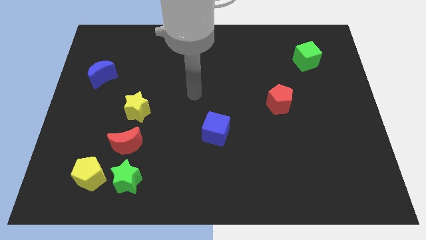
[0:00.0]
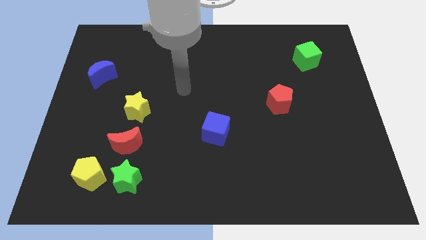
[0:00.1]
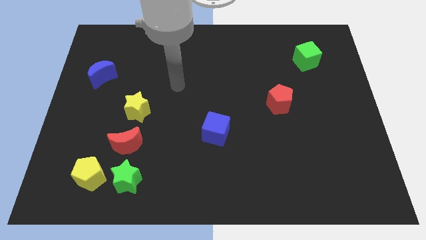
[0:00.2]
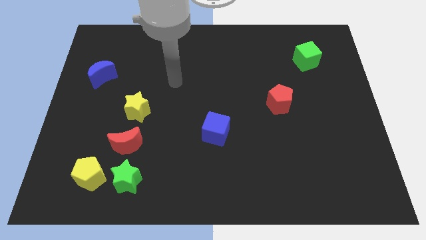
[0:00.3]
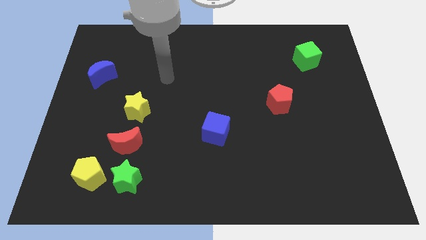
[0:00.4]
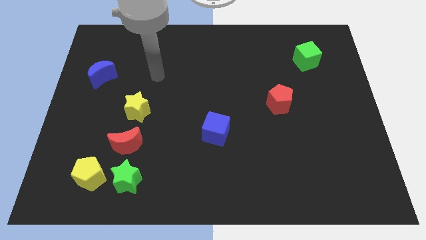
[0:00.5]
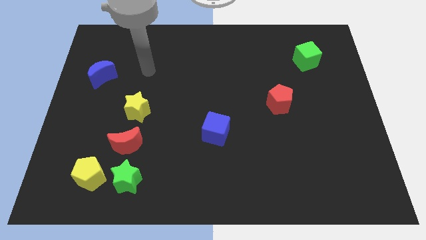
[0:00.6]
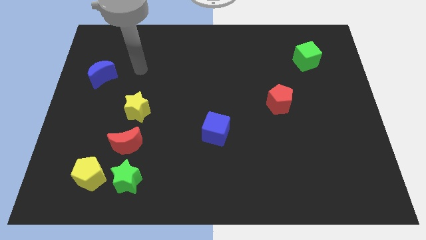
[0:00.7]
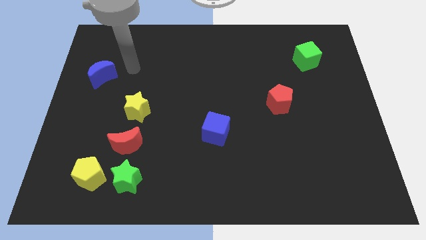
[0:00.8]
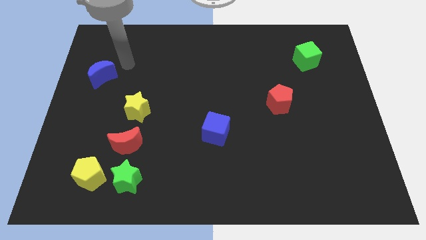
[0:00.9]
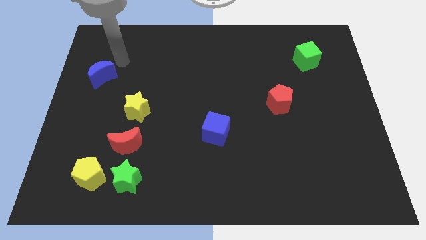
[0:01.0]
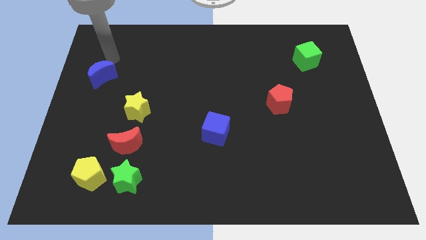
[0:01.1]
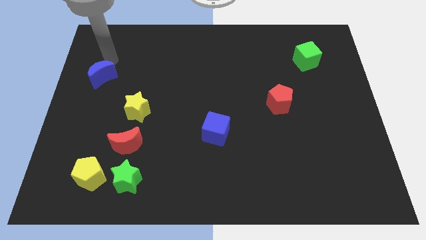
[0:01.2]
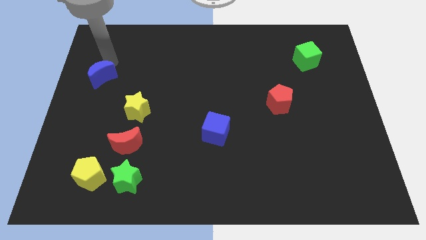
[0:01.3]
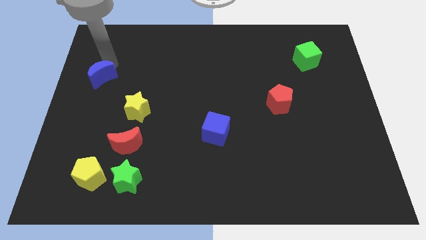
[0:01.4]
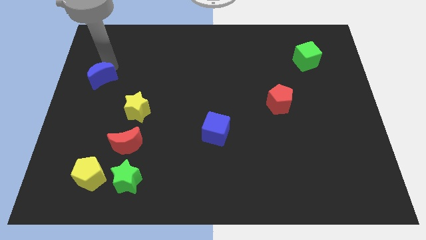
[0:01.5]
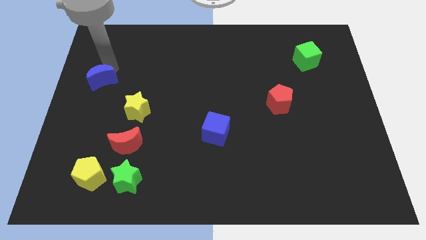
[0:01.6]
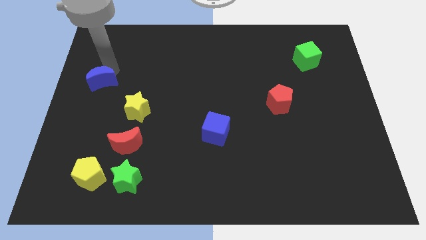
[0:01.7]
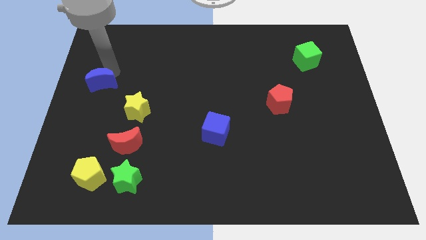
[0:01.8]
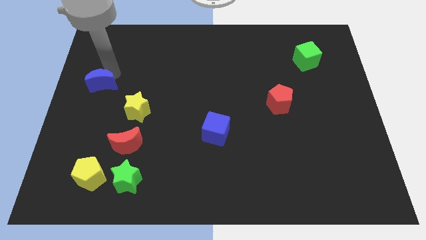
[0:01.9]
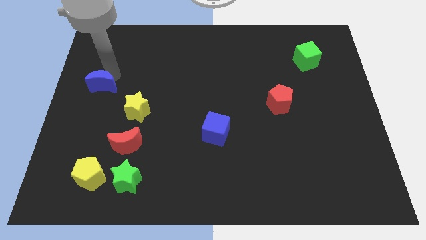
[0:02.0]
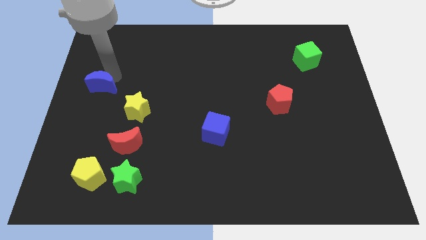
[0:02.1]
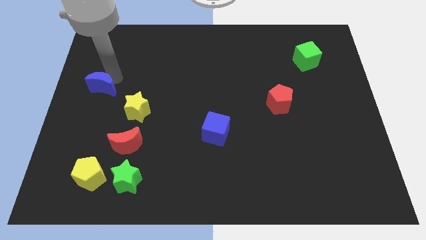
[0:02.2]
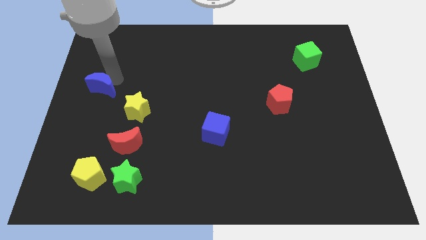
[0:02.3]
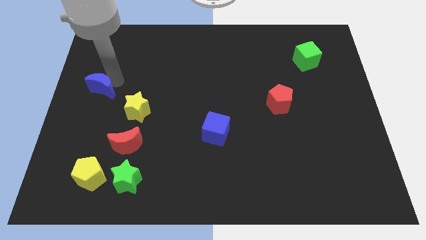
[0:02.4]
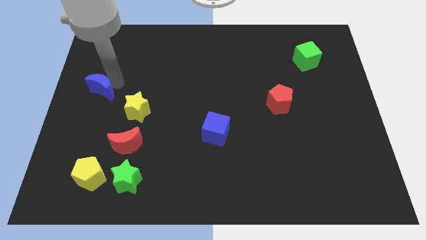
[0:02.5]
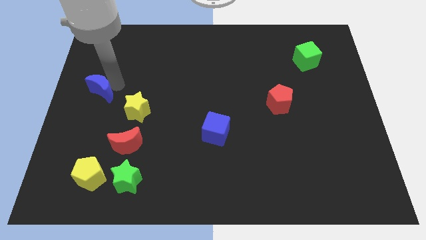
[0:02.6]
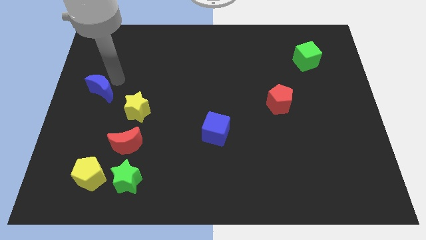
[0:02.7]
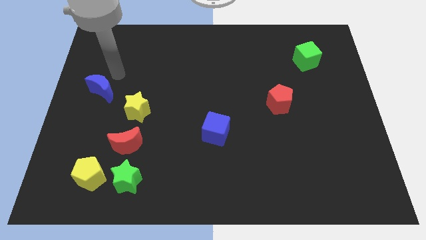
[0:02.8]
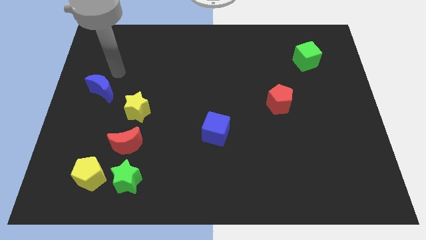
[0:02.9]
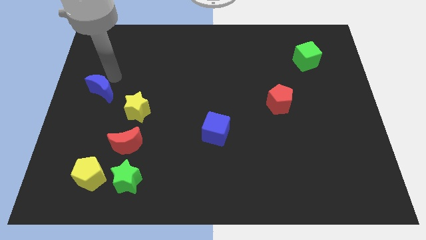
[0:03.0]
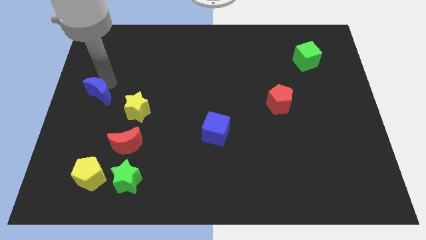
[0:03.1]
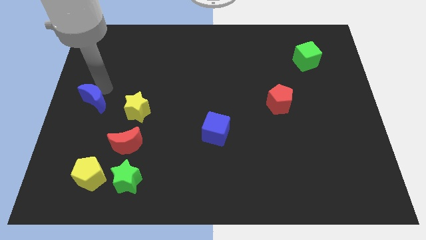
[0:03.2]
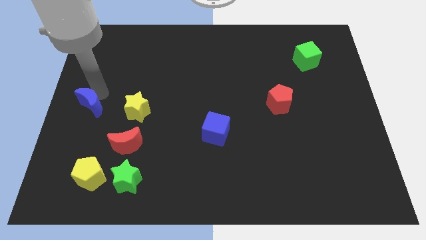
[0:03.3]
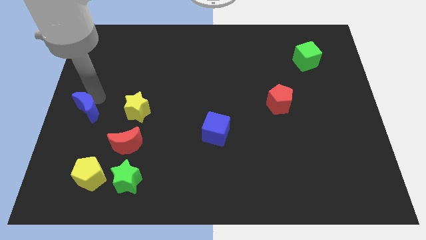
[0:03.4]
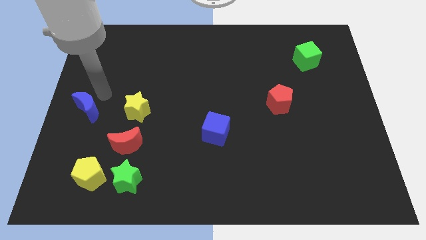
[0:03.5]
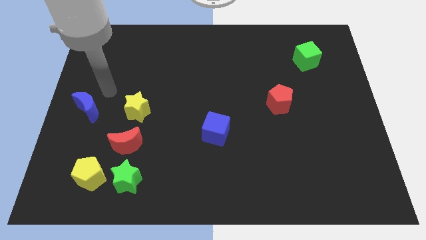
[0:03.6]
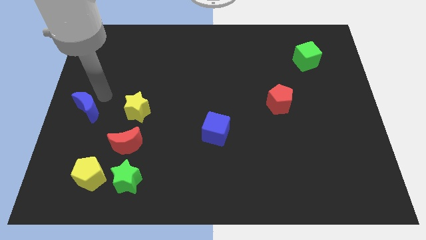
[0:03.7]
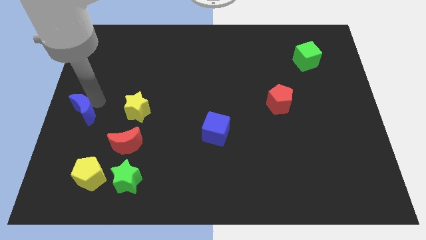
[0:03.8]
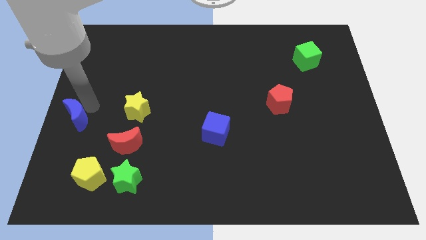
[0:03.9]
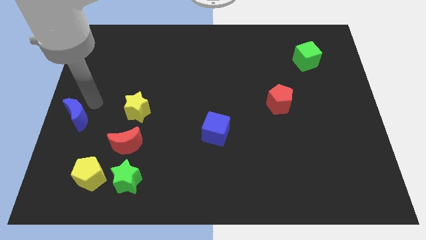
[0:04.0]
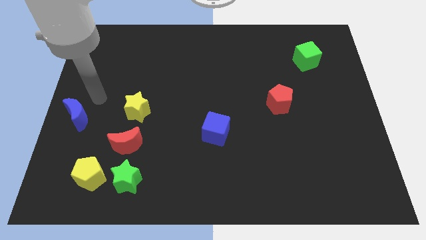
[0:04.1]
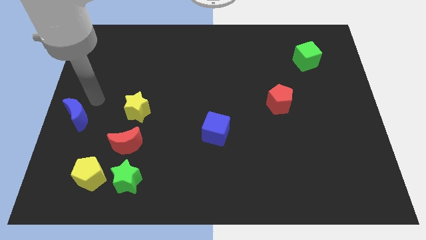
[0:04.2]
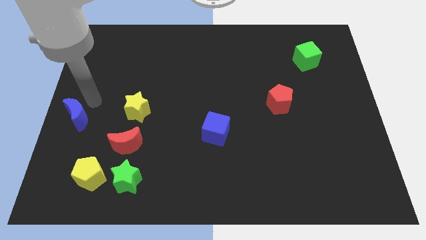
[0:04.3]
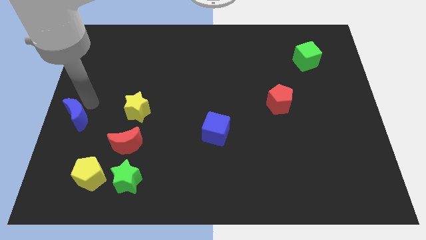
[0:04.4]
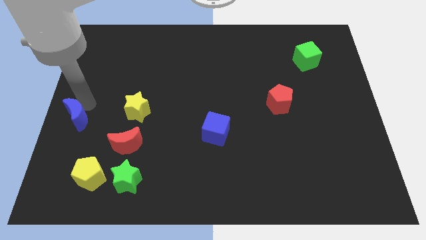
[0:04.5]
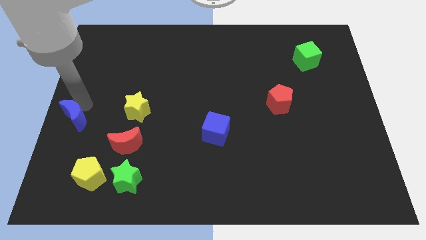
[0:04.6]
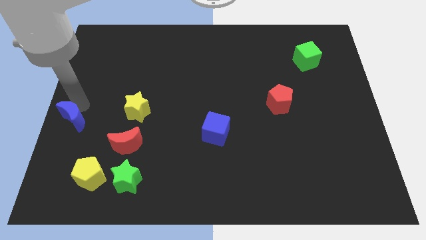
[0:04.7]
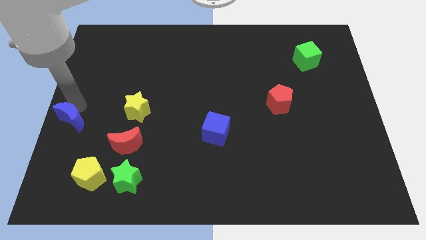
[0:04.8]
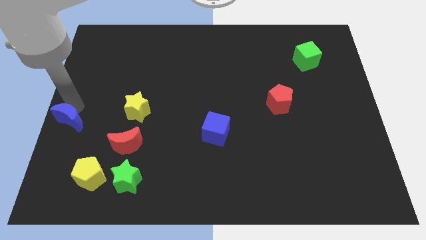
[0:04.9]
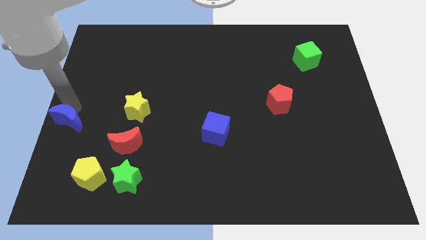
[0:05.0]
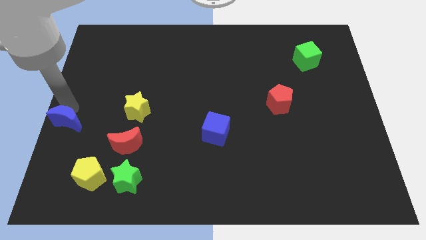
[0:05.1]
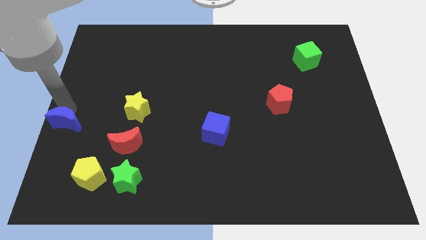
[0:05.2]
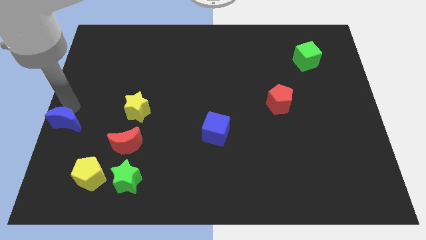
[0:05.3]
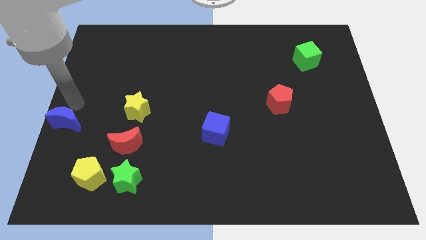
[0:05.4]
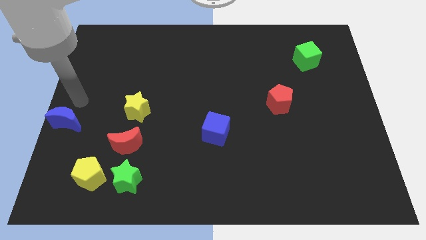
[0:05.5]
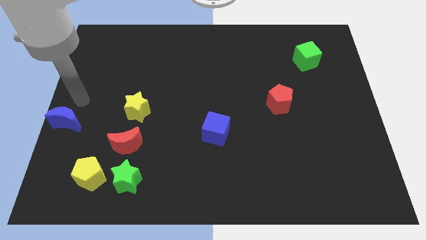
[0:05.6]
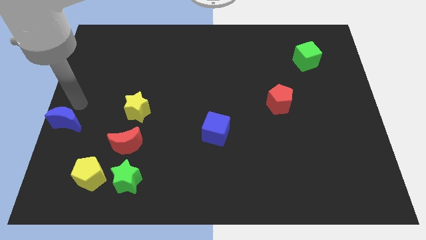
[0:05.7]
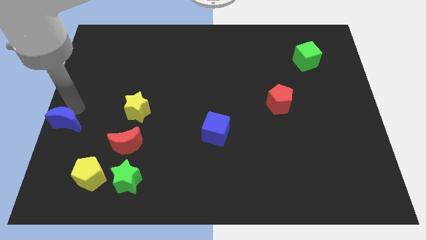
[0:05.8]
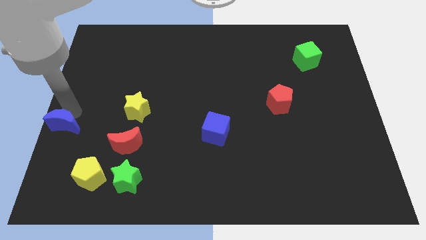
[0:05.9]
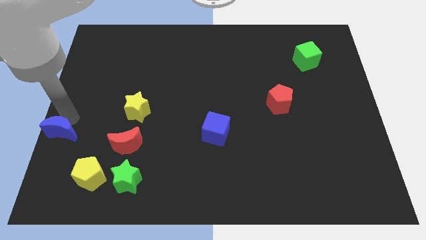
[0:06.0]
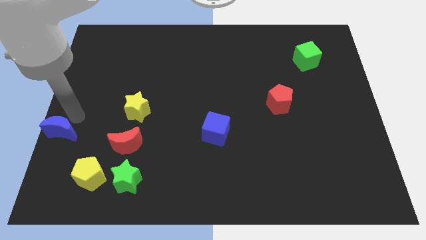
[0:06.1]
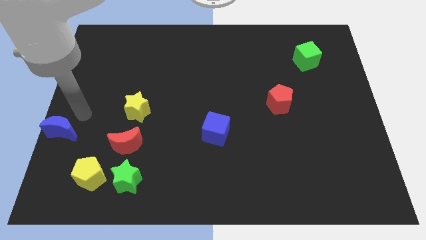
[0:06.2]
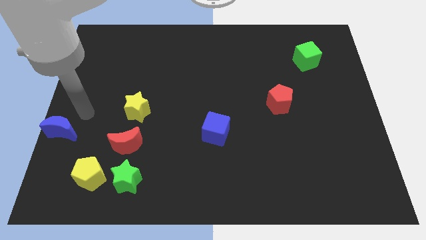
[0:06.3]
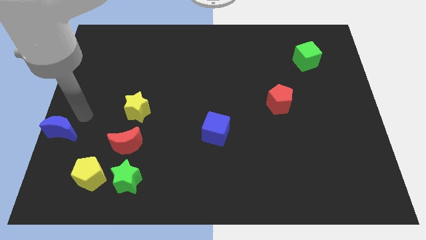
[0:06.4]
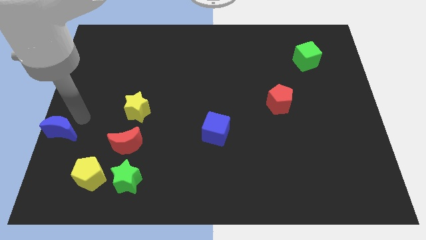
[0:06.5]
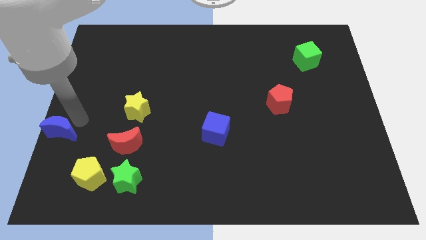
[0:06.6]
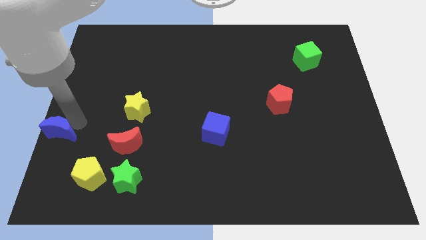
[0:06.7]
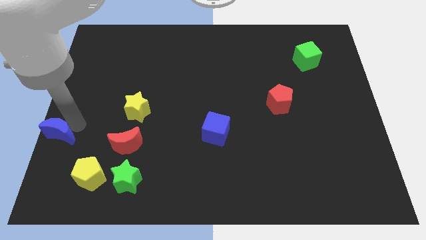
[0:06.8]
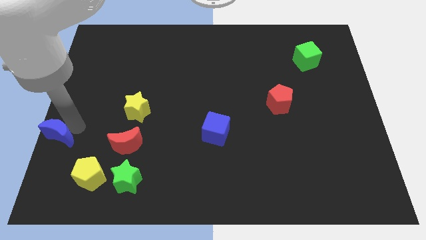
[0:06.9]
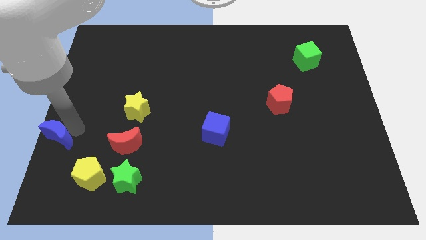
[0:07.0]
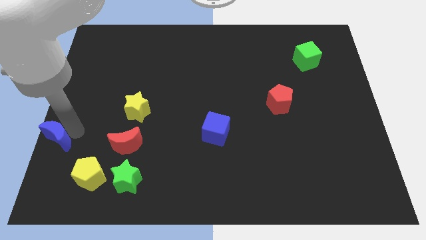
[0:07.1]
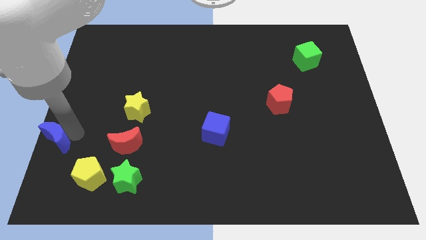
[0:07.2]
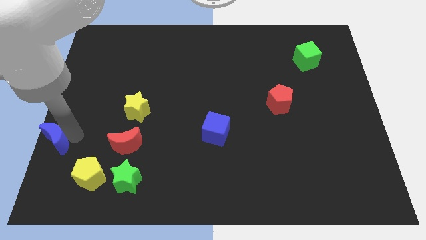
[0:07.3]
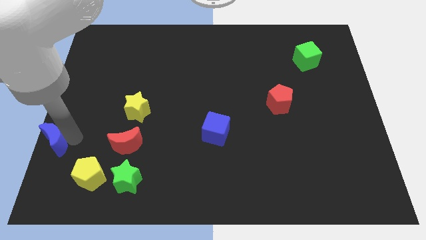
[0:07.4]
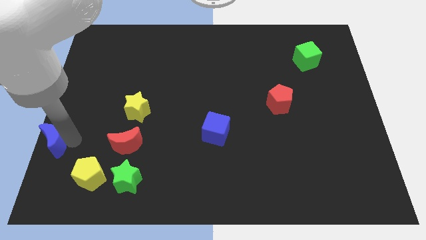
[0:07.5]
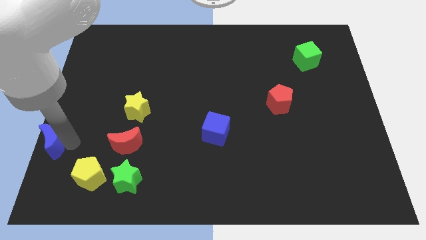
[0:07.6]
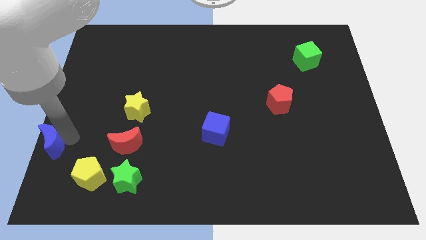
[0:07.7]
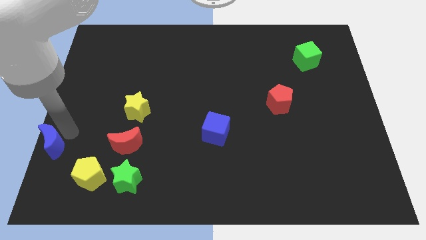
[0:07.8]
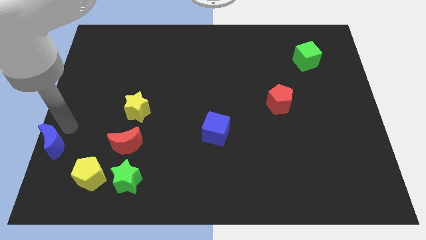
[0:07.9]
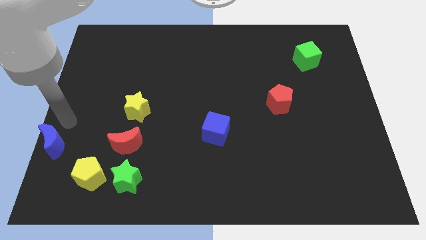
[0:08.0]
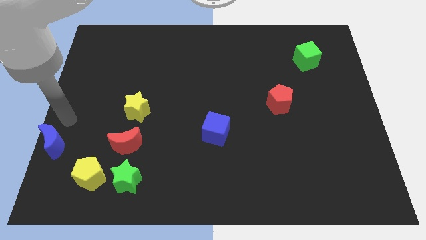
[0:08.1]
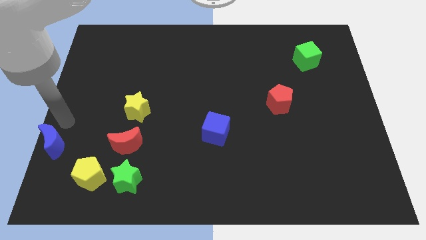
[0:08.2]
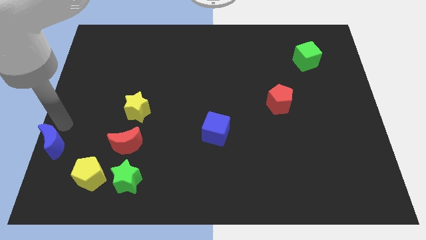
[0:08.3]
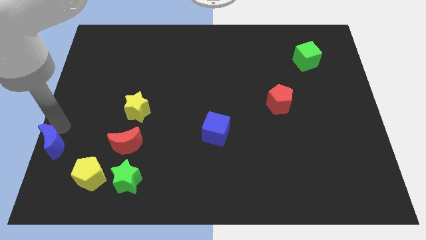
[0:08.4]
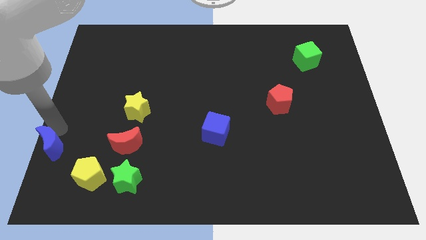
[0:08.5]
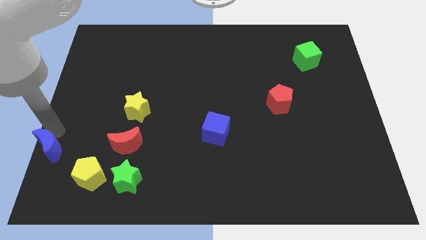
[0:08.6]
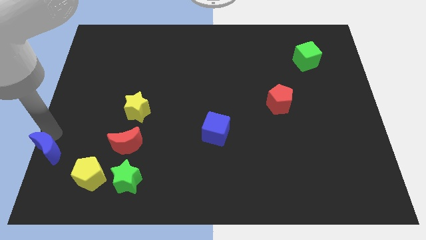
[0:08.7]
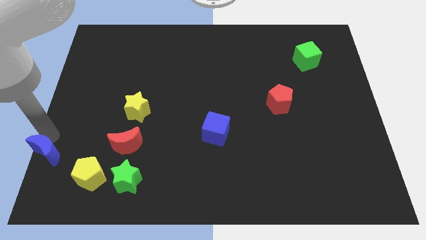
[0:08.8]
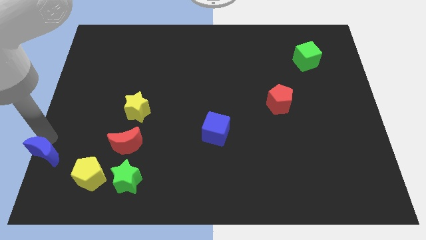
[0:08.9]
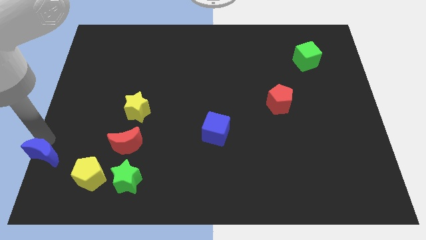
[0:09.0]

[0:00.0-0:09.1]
slide the blue moon to the lower left corner
